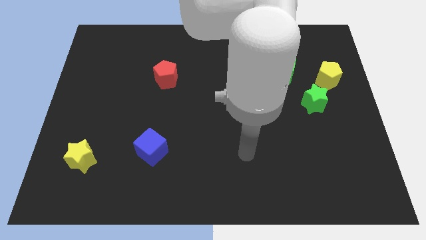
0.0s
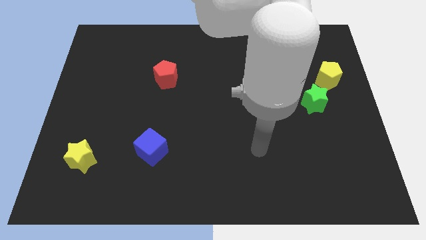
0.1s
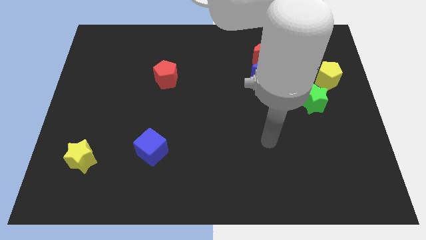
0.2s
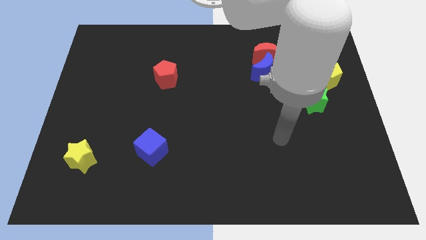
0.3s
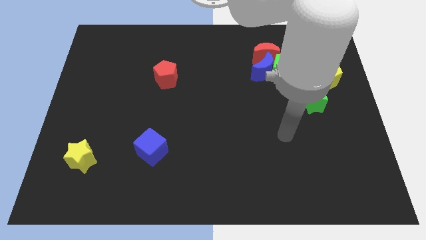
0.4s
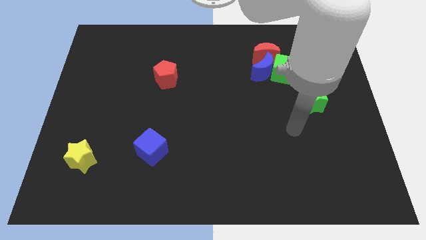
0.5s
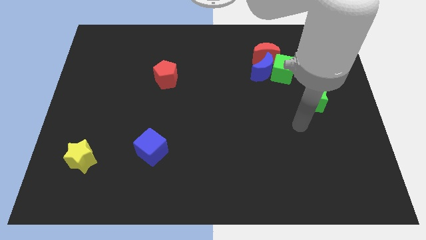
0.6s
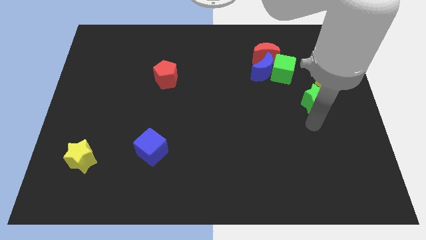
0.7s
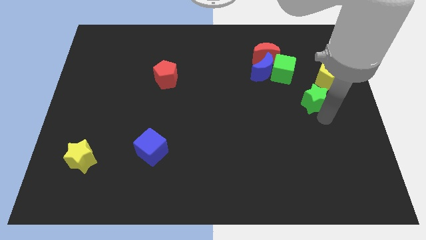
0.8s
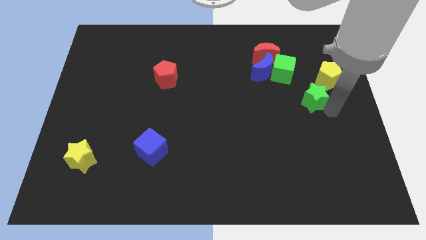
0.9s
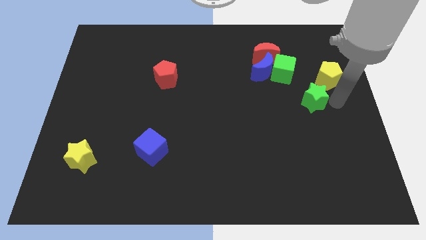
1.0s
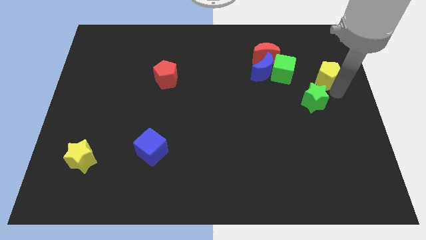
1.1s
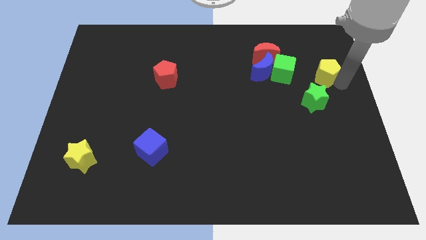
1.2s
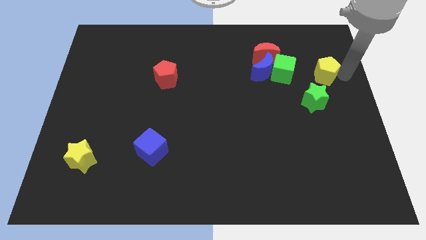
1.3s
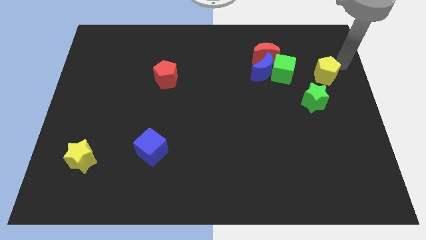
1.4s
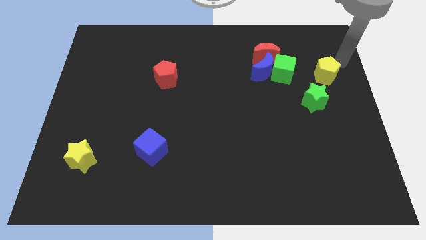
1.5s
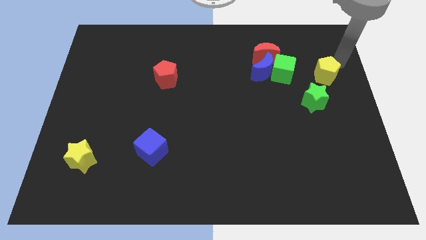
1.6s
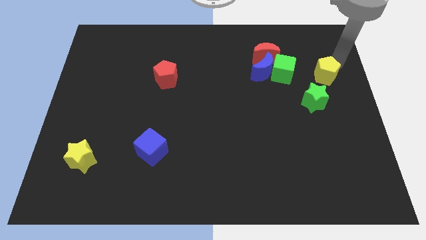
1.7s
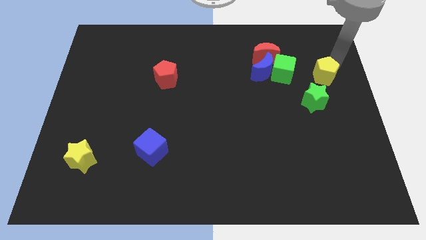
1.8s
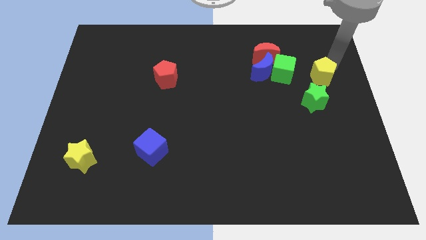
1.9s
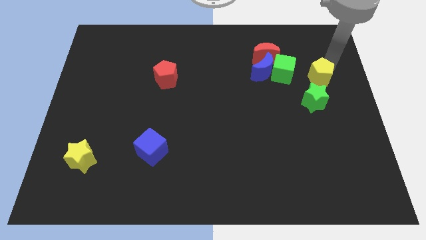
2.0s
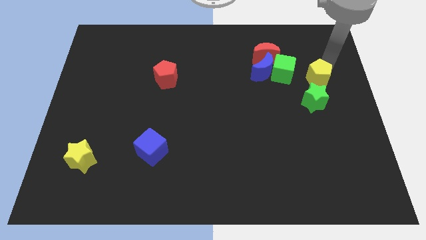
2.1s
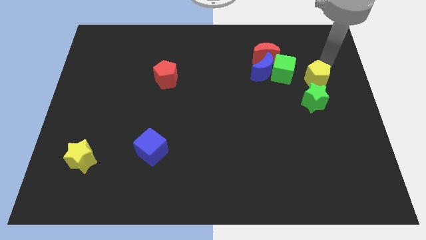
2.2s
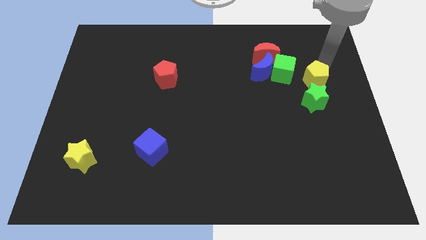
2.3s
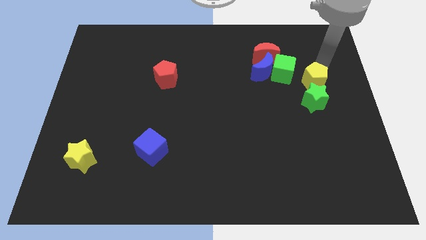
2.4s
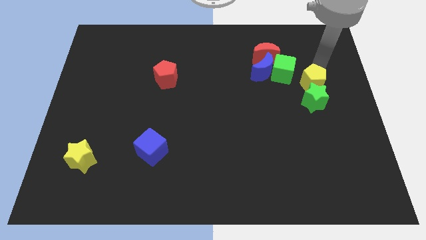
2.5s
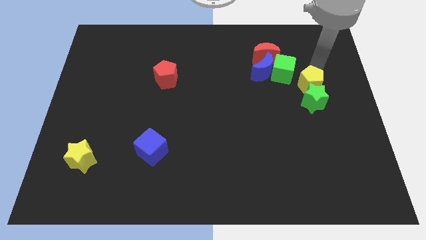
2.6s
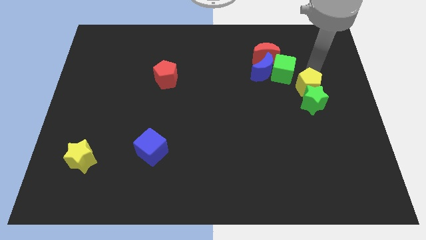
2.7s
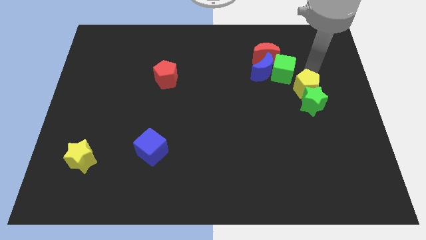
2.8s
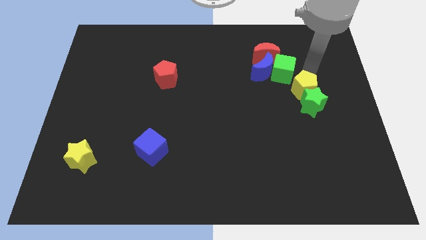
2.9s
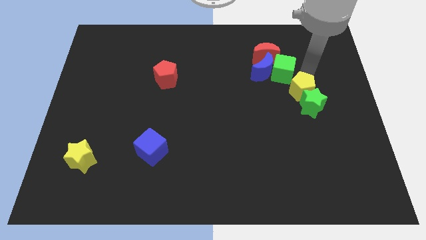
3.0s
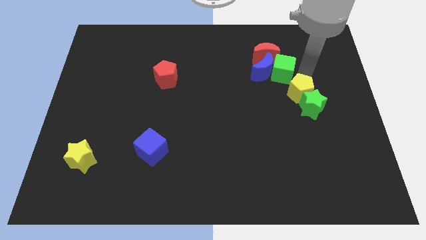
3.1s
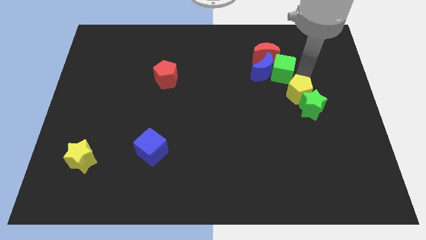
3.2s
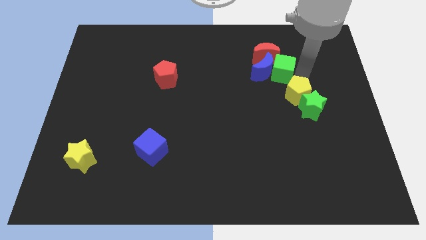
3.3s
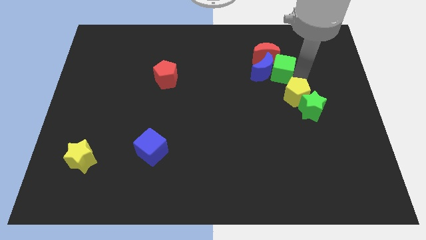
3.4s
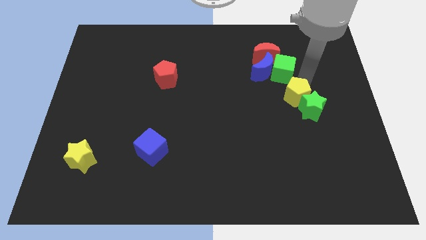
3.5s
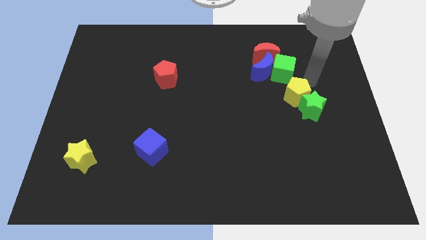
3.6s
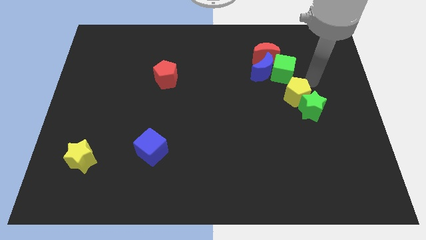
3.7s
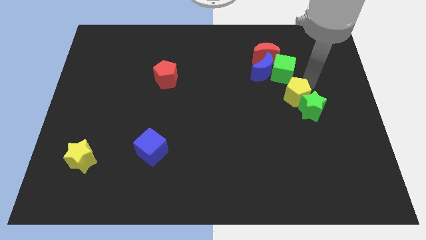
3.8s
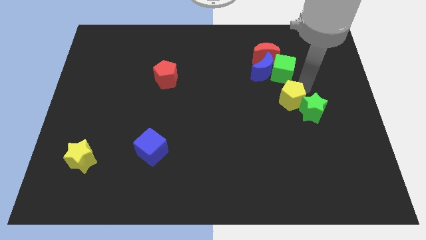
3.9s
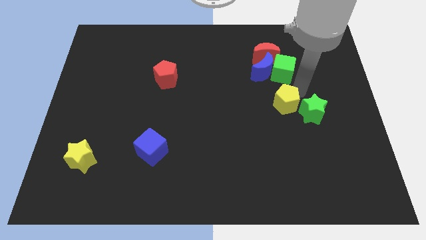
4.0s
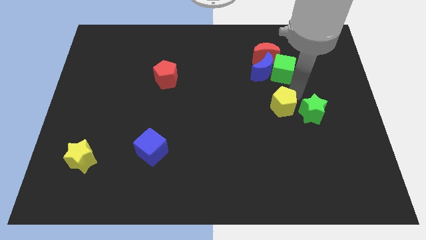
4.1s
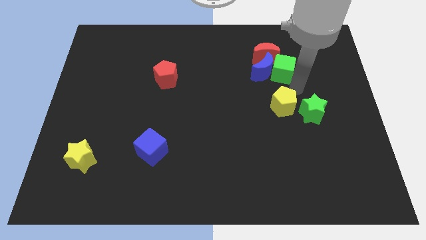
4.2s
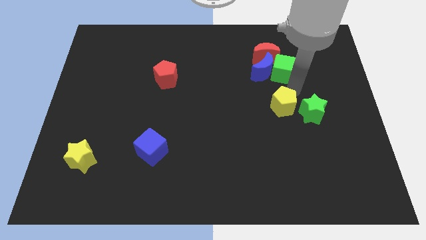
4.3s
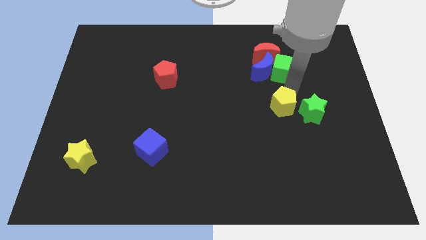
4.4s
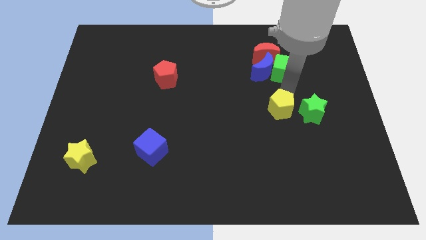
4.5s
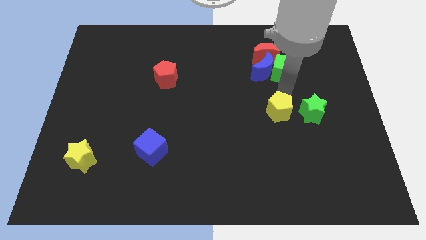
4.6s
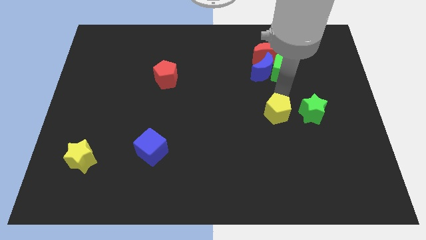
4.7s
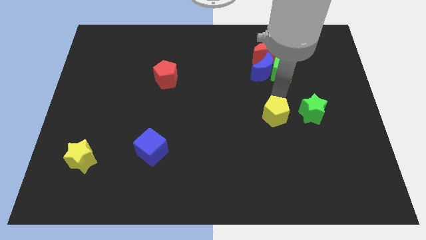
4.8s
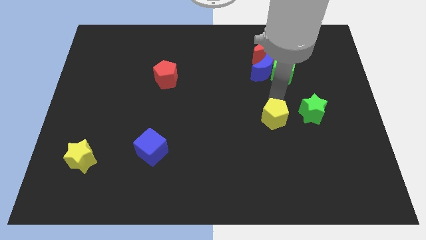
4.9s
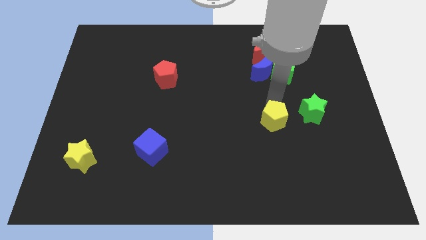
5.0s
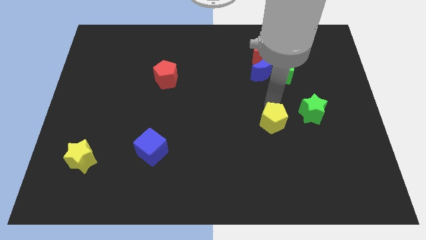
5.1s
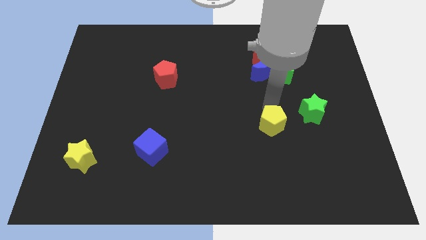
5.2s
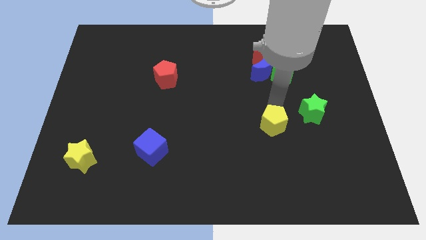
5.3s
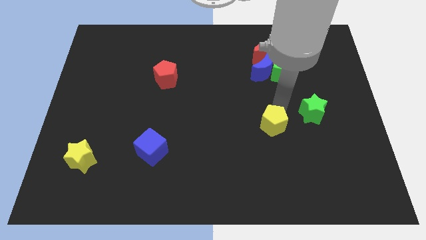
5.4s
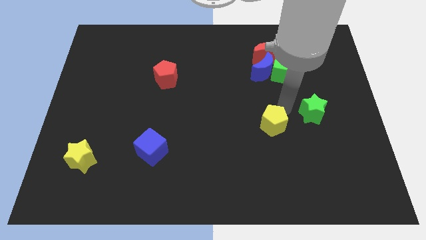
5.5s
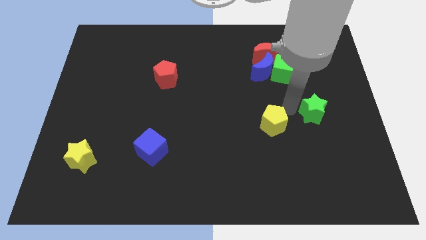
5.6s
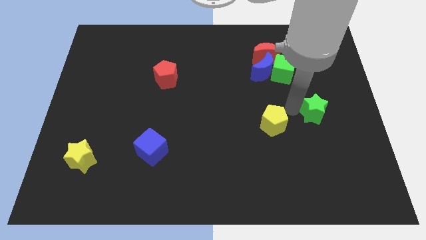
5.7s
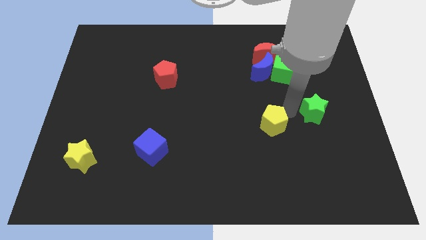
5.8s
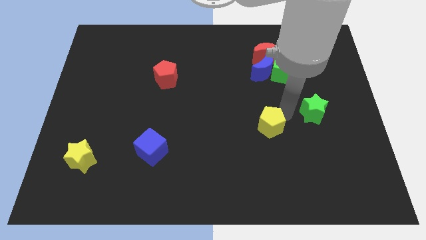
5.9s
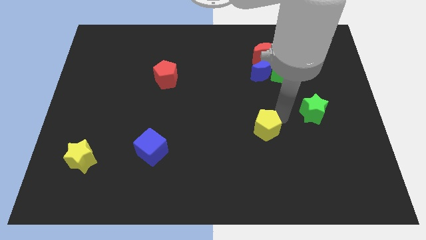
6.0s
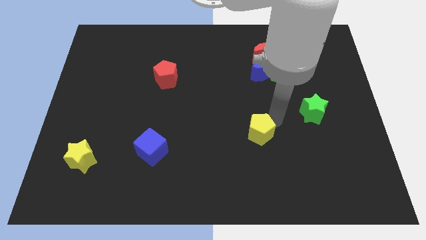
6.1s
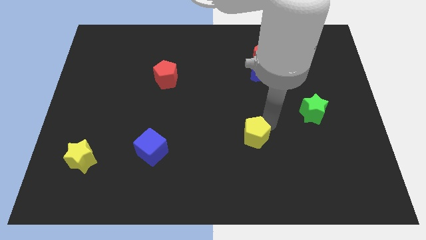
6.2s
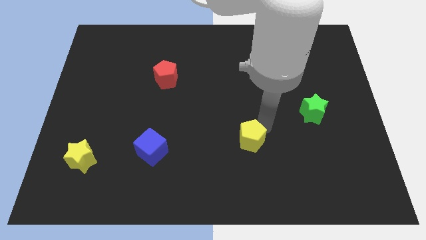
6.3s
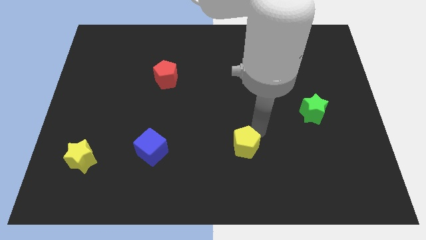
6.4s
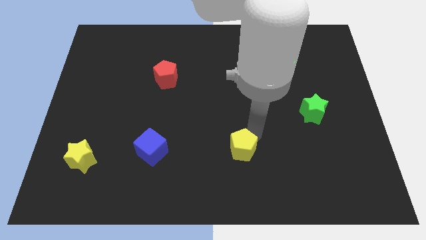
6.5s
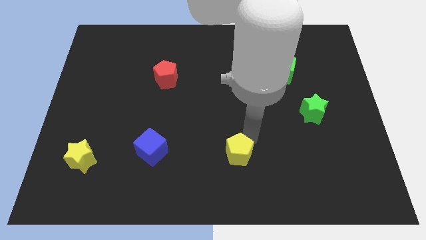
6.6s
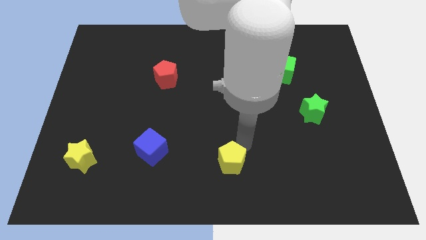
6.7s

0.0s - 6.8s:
push the yellow pentagon to the bottom
